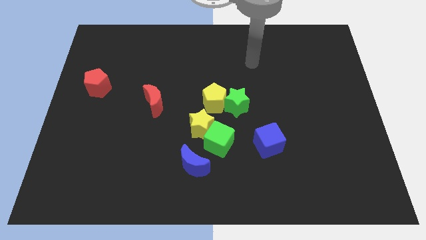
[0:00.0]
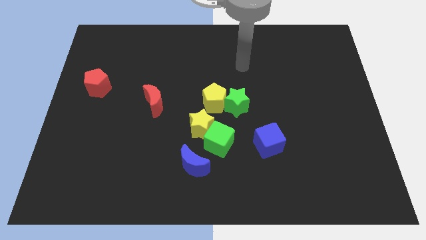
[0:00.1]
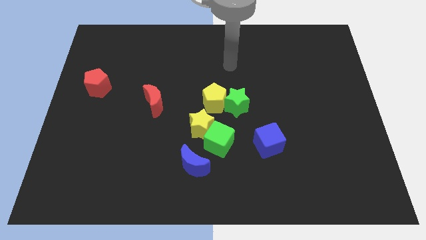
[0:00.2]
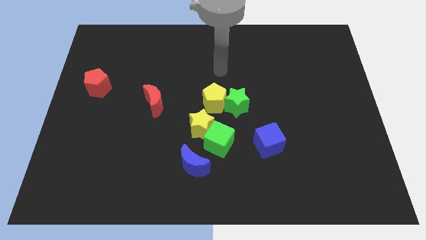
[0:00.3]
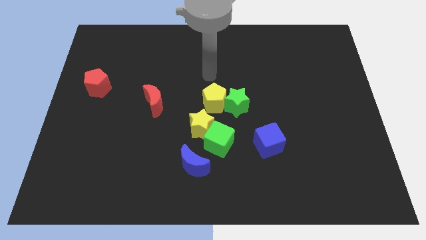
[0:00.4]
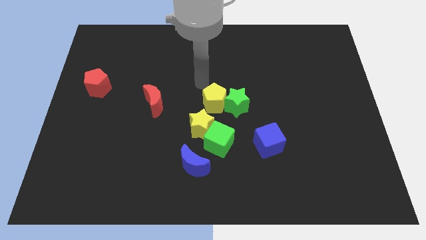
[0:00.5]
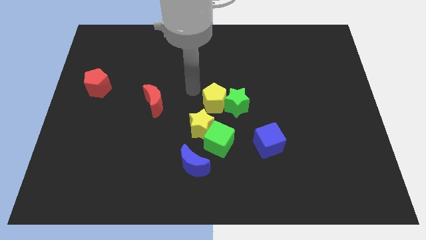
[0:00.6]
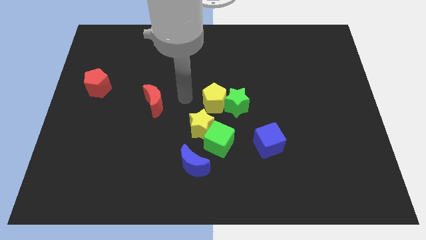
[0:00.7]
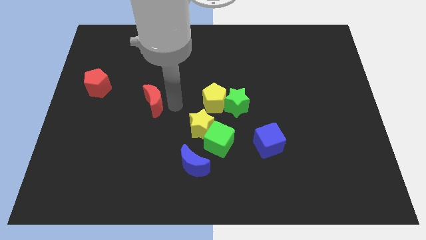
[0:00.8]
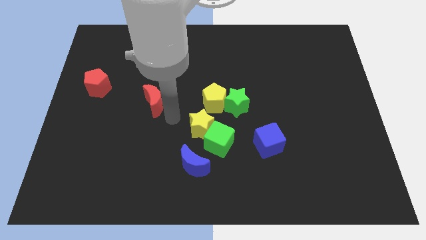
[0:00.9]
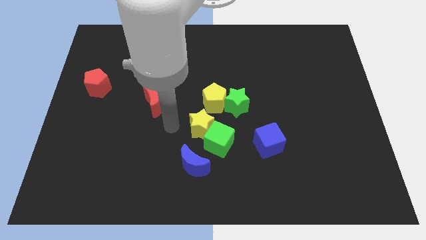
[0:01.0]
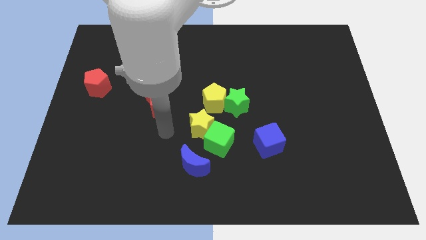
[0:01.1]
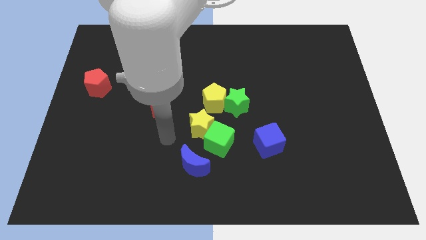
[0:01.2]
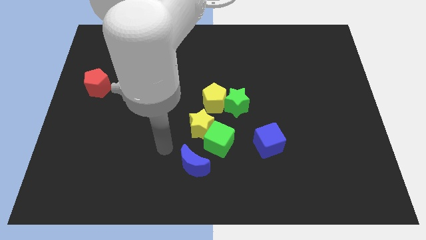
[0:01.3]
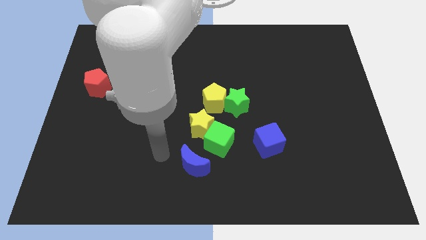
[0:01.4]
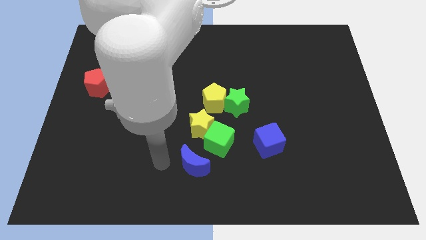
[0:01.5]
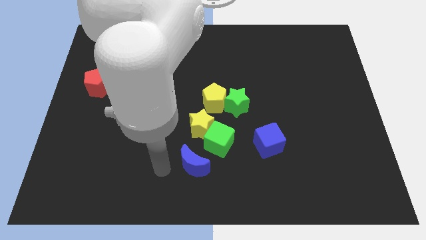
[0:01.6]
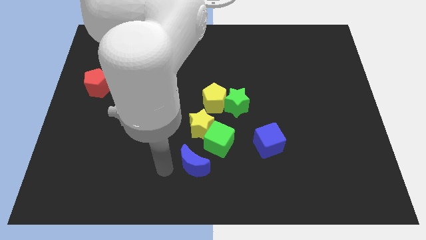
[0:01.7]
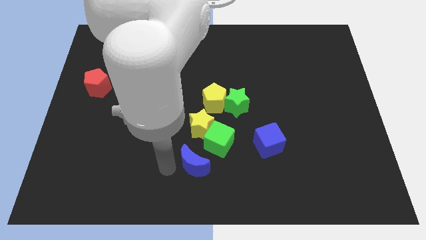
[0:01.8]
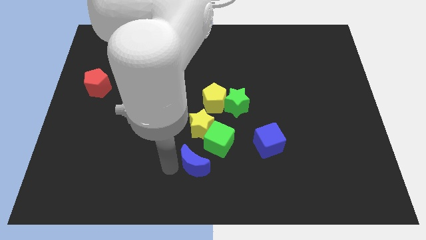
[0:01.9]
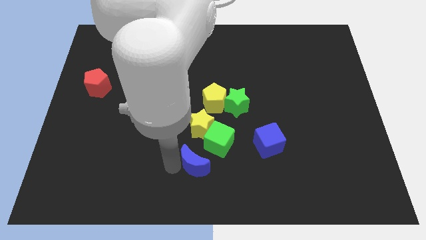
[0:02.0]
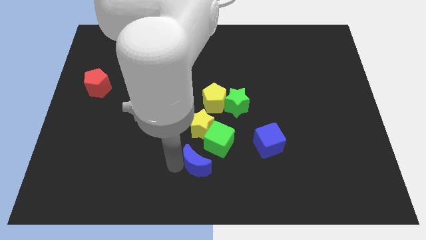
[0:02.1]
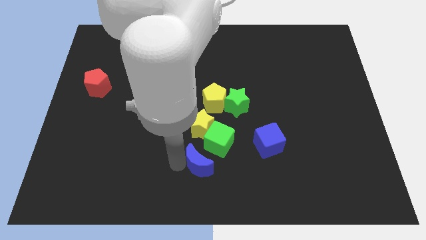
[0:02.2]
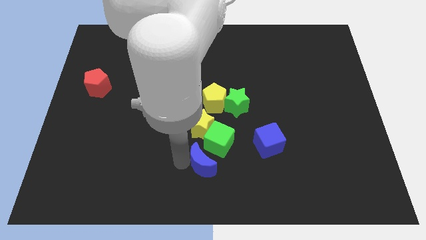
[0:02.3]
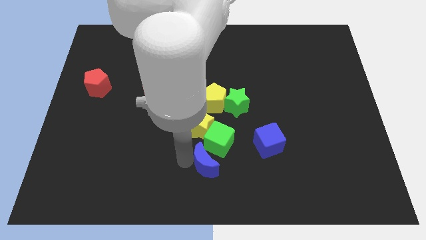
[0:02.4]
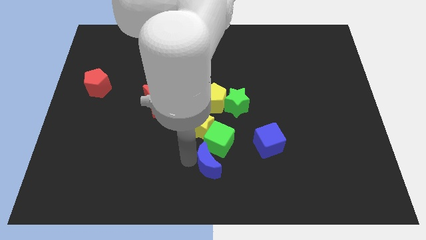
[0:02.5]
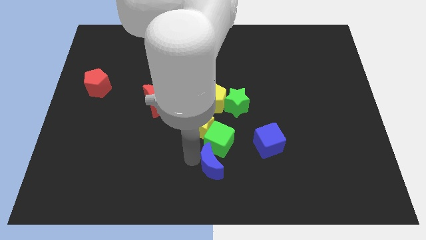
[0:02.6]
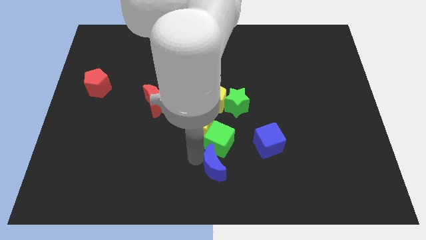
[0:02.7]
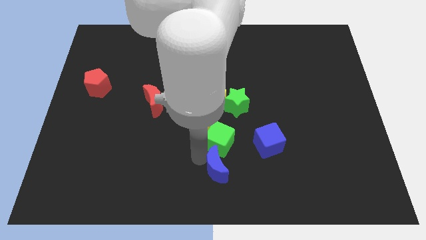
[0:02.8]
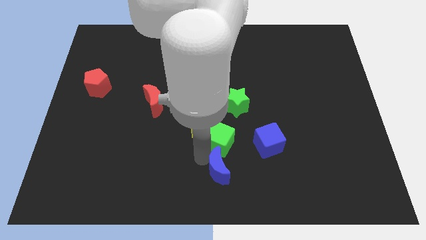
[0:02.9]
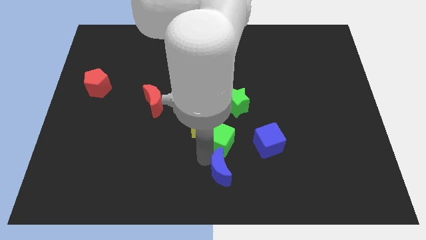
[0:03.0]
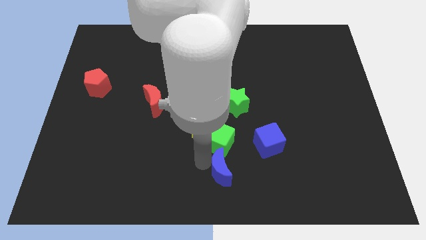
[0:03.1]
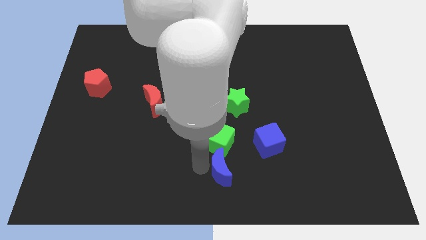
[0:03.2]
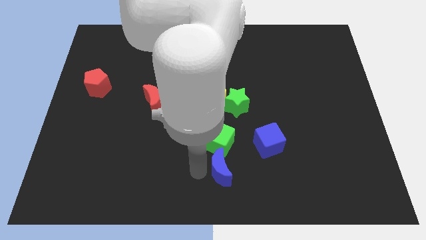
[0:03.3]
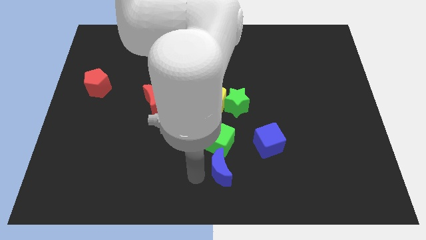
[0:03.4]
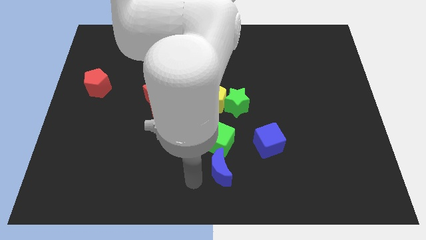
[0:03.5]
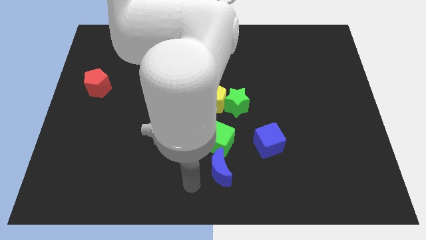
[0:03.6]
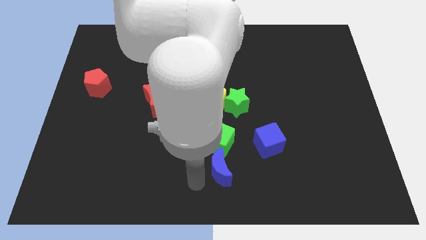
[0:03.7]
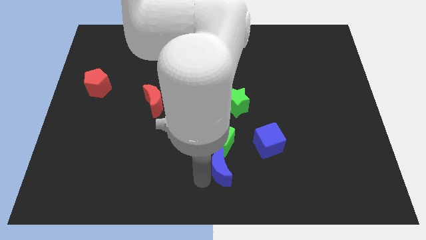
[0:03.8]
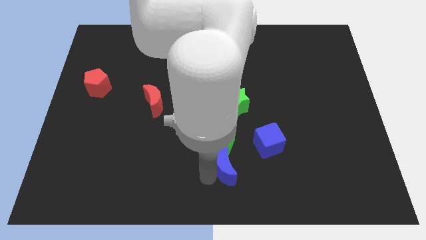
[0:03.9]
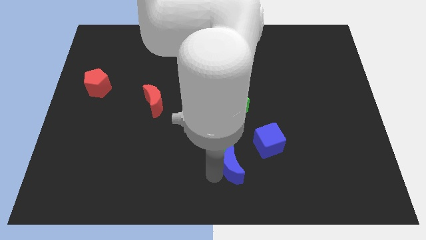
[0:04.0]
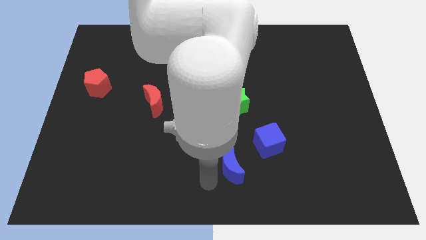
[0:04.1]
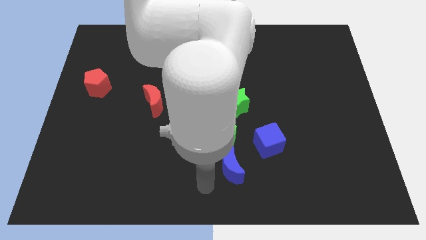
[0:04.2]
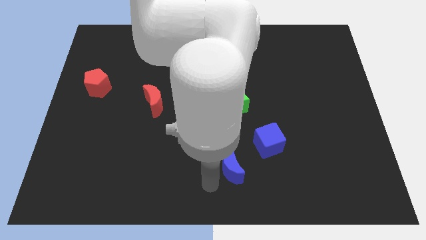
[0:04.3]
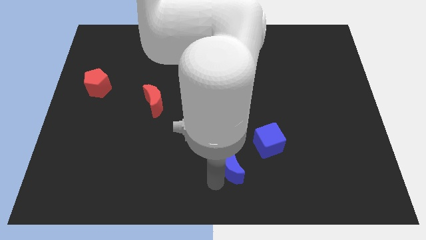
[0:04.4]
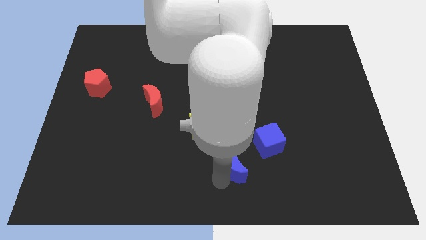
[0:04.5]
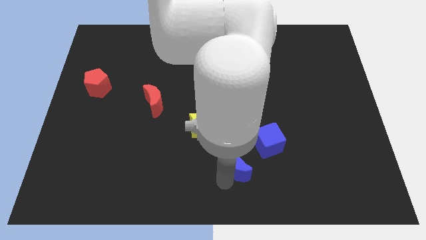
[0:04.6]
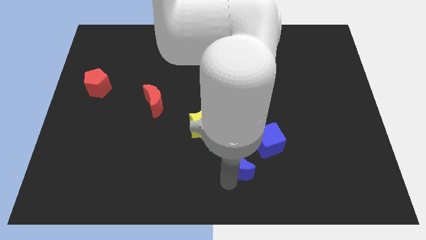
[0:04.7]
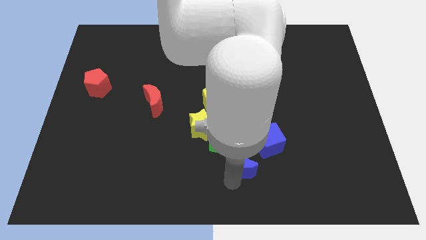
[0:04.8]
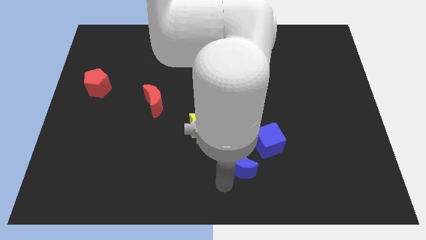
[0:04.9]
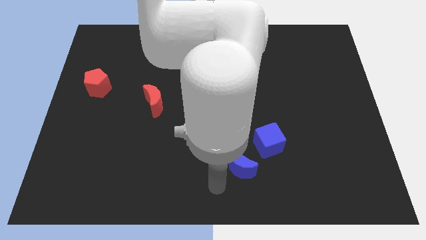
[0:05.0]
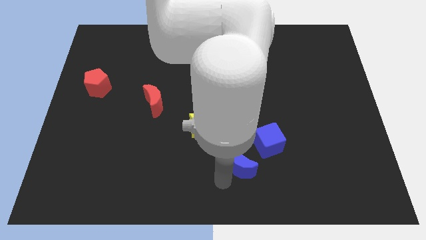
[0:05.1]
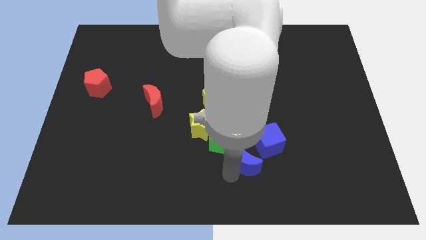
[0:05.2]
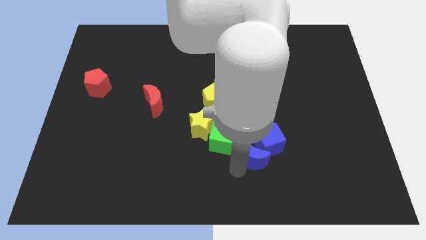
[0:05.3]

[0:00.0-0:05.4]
slide the blue moon to the blue cube

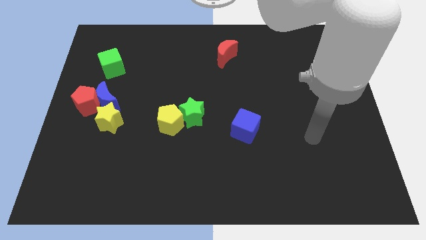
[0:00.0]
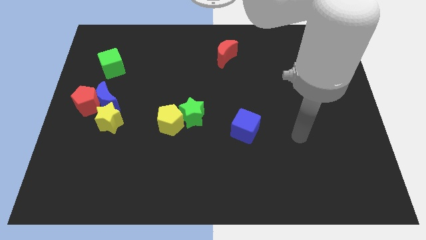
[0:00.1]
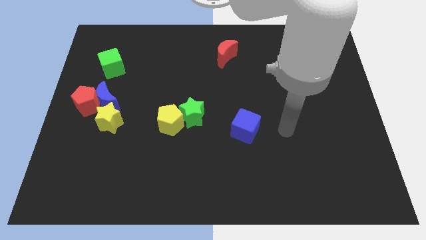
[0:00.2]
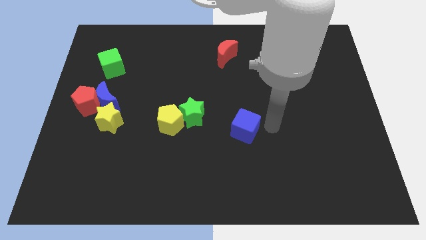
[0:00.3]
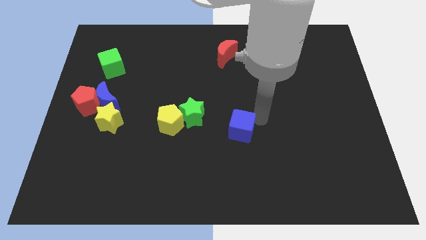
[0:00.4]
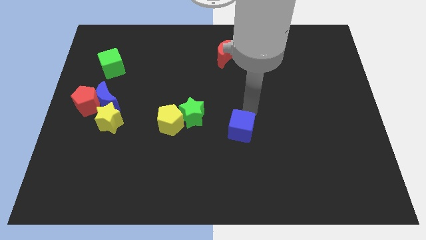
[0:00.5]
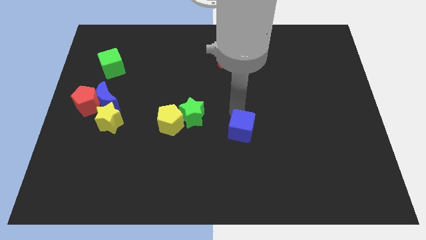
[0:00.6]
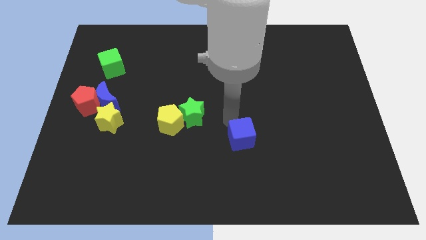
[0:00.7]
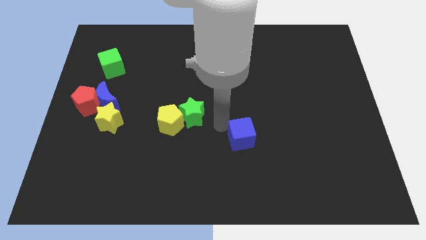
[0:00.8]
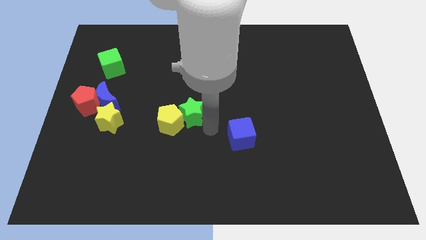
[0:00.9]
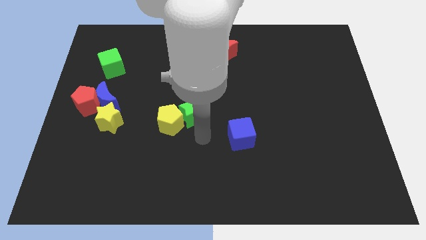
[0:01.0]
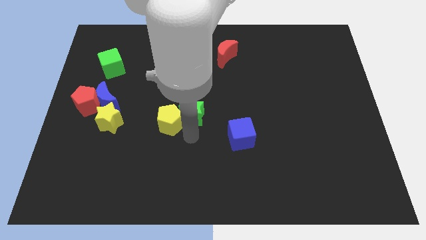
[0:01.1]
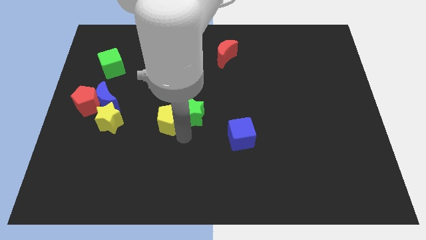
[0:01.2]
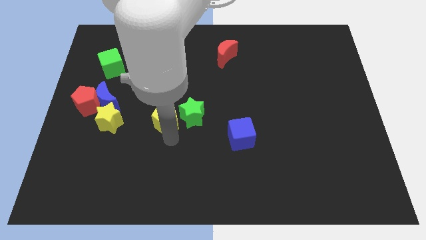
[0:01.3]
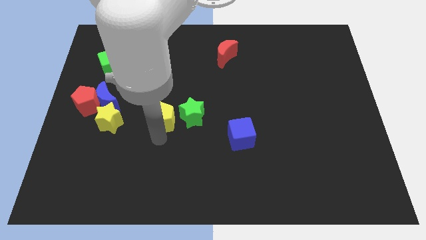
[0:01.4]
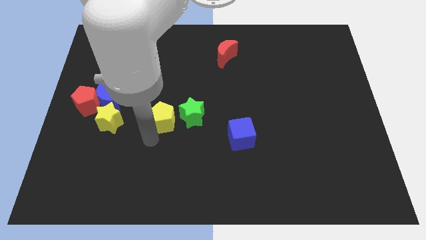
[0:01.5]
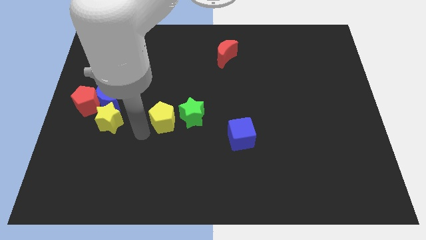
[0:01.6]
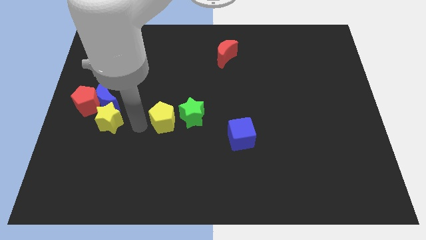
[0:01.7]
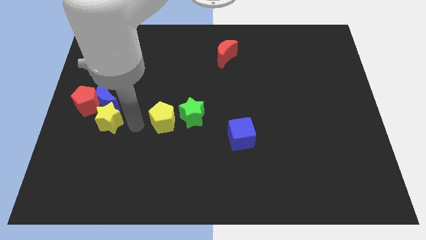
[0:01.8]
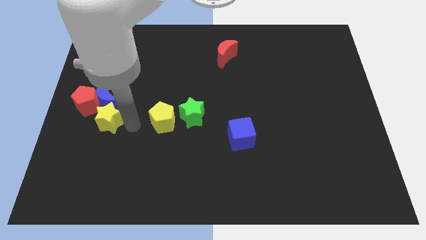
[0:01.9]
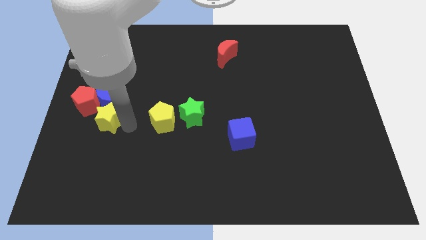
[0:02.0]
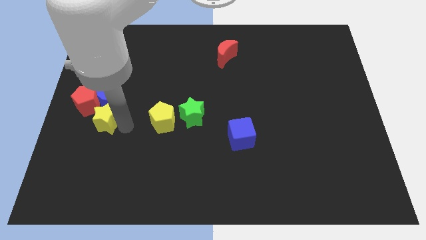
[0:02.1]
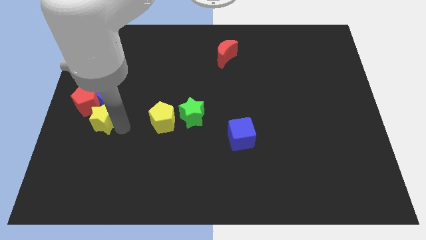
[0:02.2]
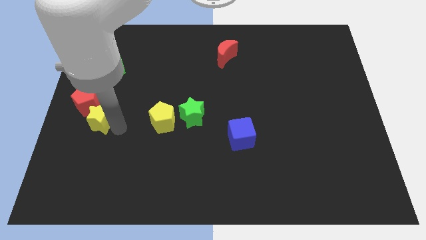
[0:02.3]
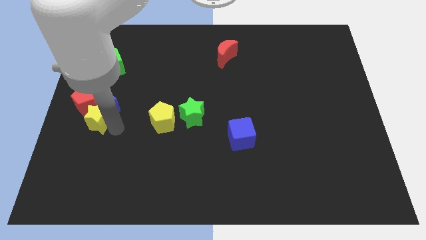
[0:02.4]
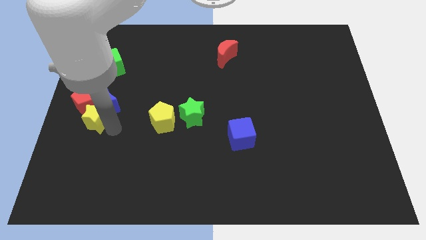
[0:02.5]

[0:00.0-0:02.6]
put the yellow star to the red pentagon
